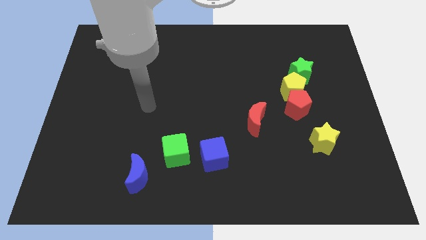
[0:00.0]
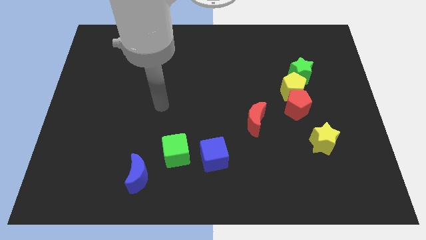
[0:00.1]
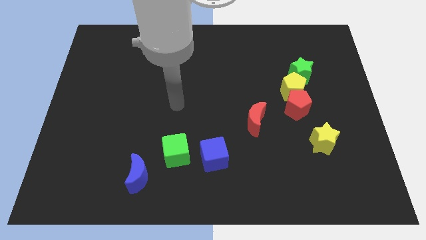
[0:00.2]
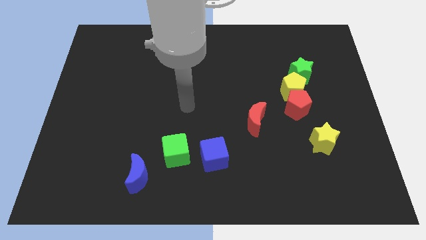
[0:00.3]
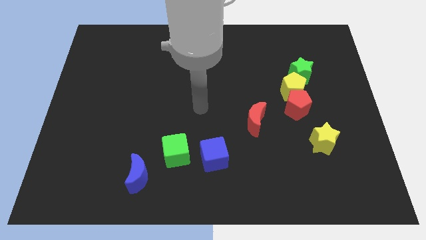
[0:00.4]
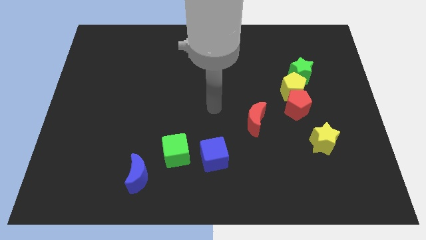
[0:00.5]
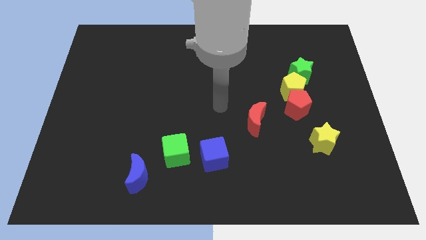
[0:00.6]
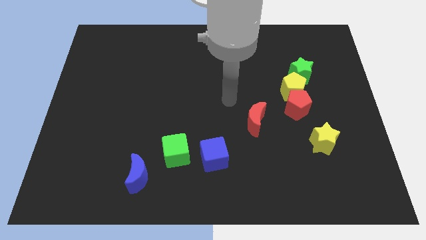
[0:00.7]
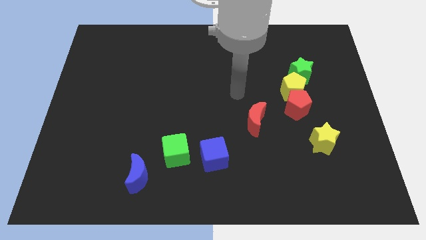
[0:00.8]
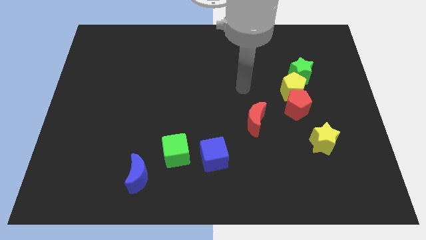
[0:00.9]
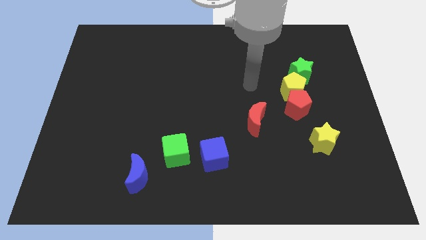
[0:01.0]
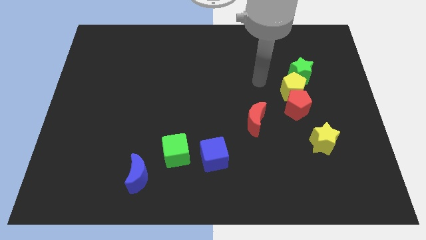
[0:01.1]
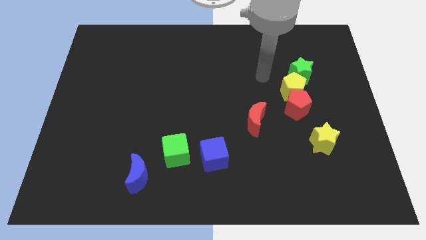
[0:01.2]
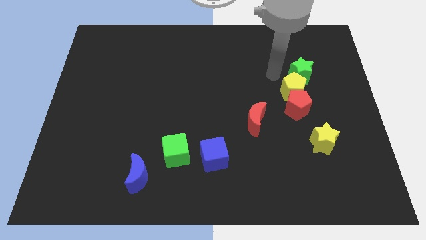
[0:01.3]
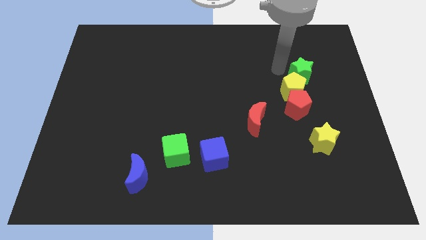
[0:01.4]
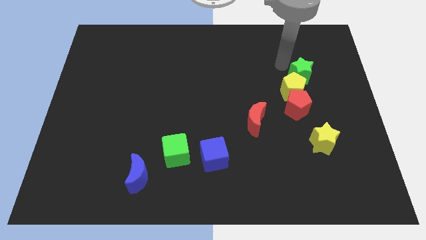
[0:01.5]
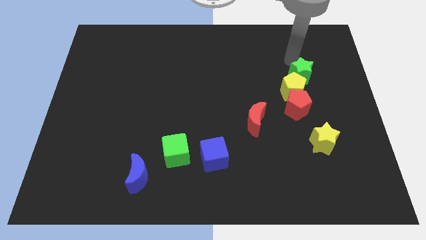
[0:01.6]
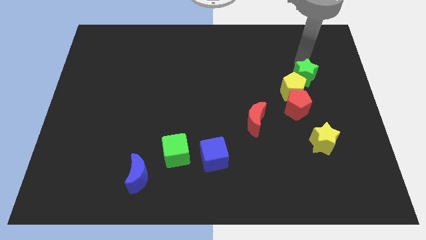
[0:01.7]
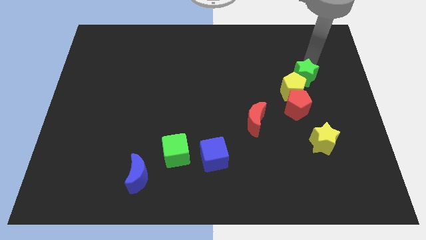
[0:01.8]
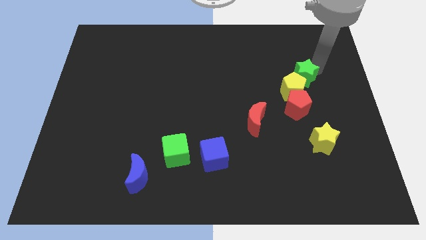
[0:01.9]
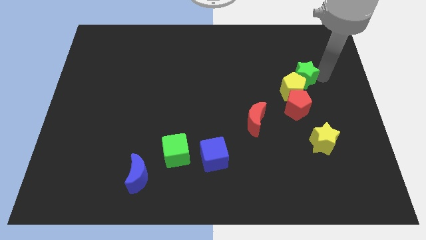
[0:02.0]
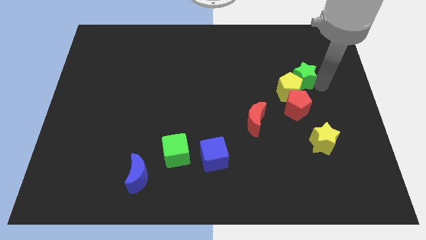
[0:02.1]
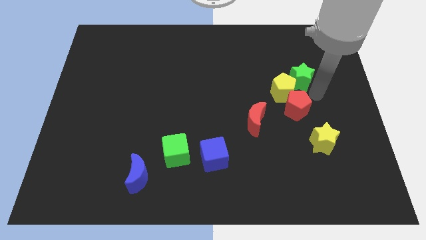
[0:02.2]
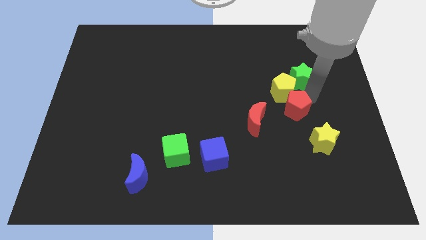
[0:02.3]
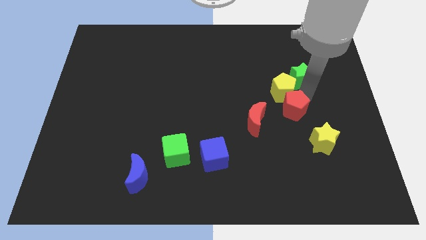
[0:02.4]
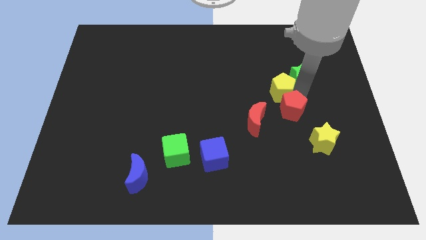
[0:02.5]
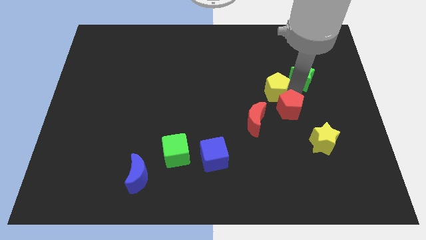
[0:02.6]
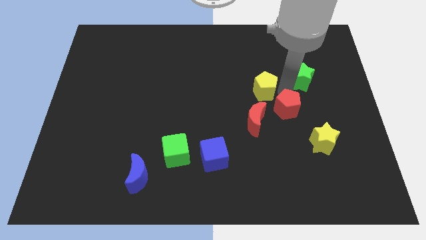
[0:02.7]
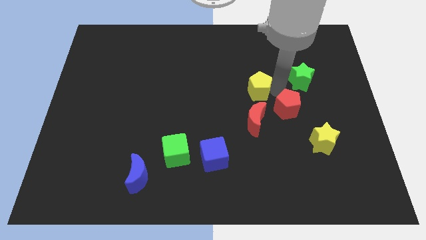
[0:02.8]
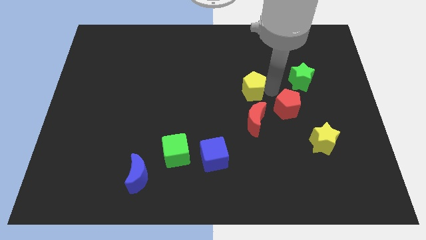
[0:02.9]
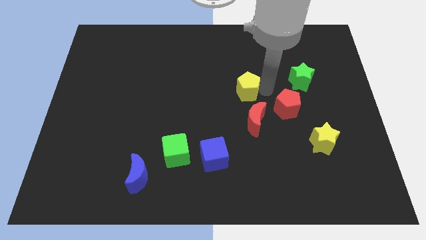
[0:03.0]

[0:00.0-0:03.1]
separate the yellow pentagon from the red pentagon and green star

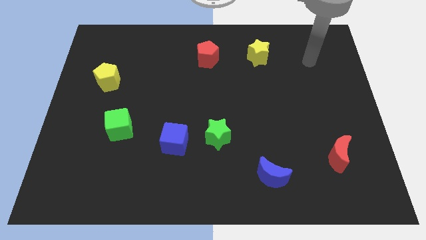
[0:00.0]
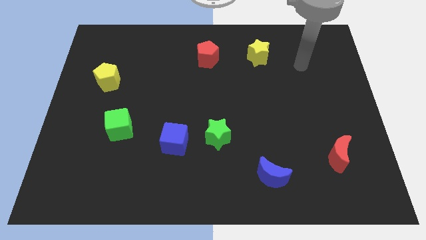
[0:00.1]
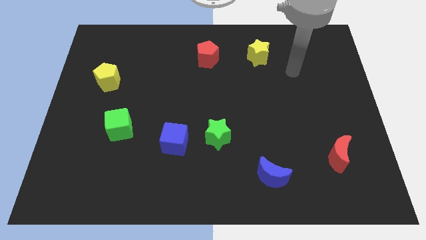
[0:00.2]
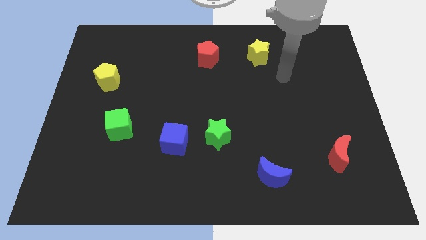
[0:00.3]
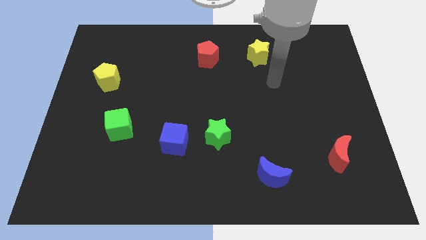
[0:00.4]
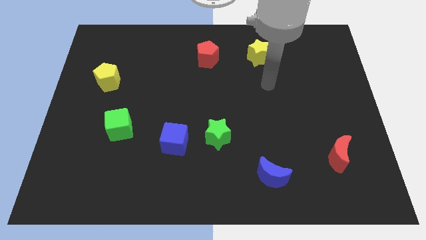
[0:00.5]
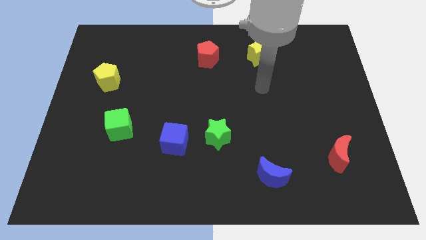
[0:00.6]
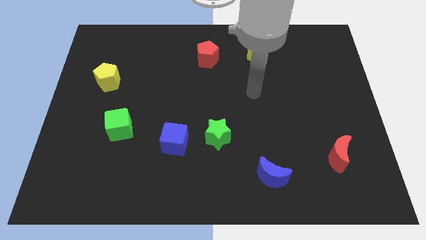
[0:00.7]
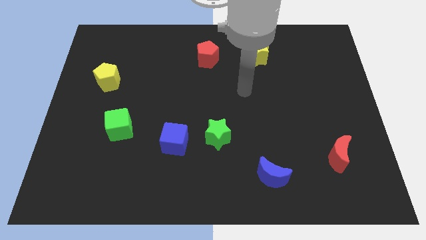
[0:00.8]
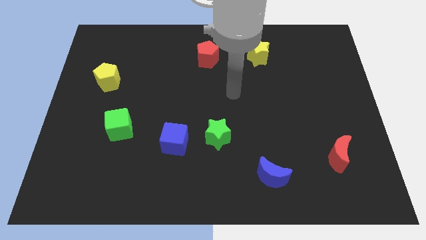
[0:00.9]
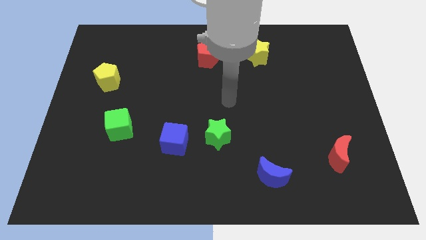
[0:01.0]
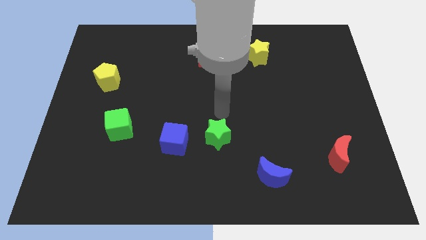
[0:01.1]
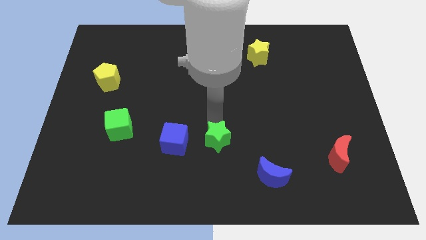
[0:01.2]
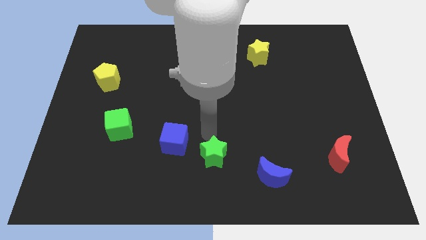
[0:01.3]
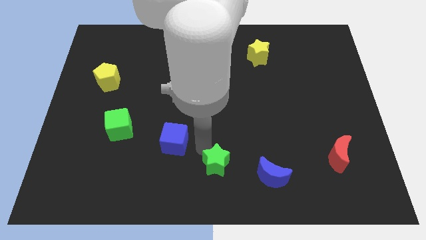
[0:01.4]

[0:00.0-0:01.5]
separate the blue cube from the green star

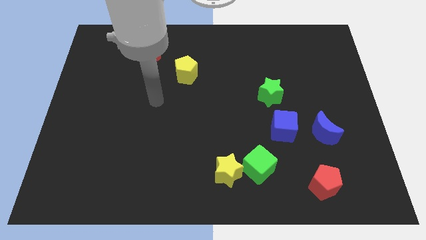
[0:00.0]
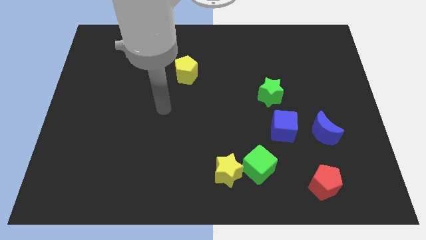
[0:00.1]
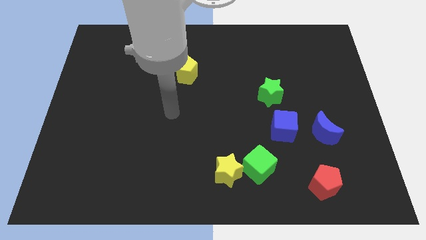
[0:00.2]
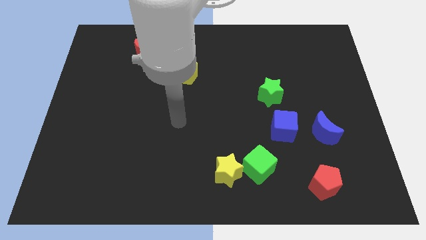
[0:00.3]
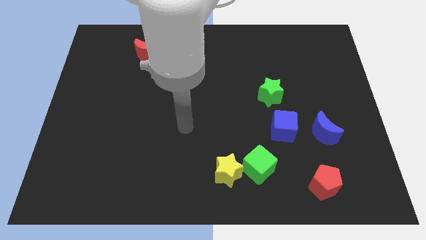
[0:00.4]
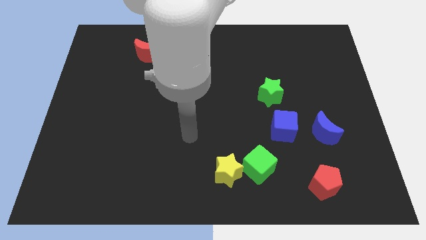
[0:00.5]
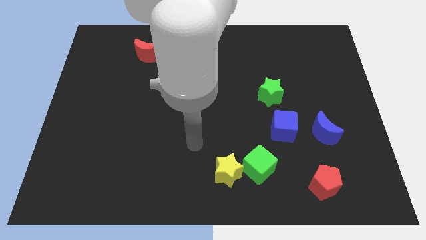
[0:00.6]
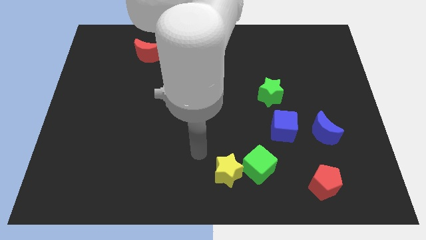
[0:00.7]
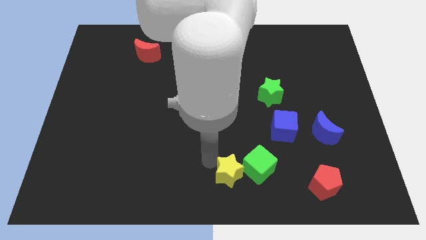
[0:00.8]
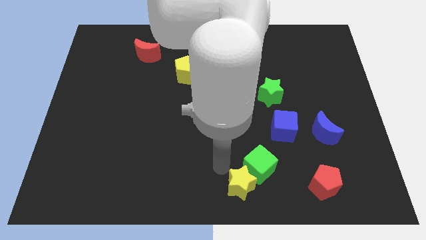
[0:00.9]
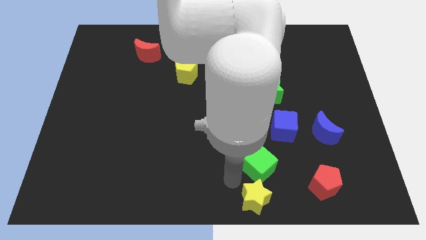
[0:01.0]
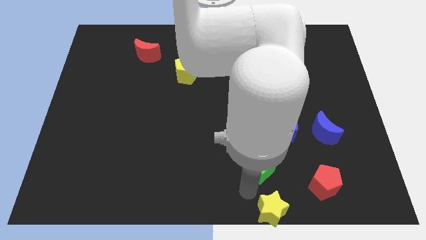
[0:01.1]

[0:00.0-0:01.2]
pull the green cube apart from the yellow star

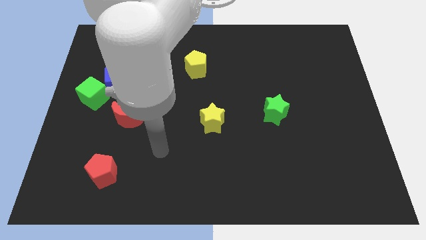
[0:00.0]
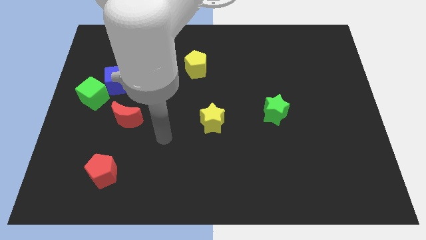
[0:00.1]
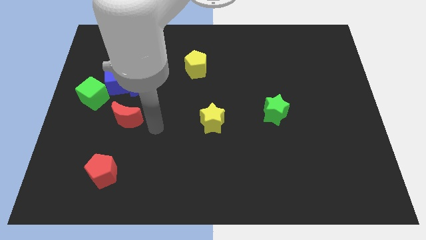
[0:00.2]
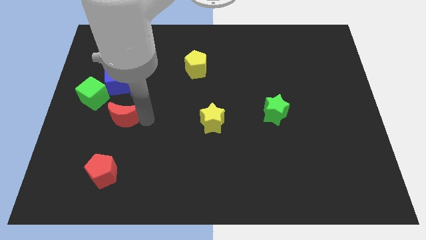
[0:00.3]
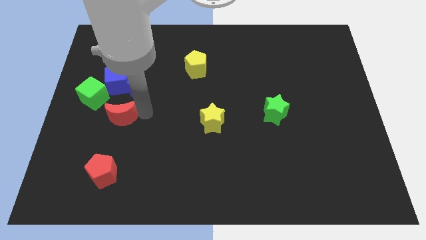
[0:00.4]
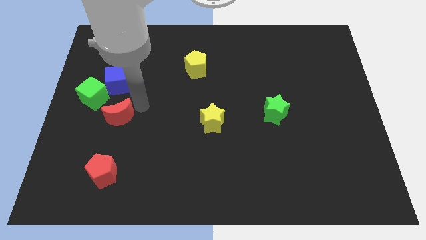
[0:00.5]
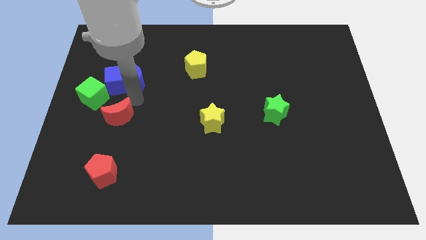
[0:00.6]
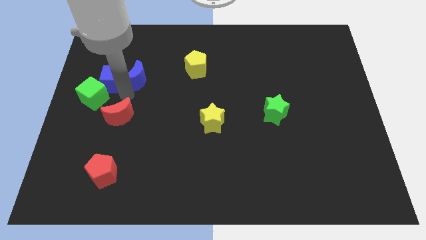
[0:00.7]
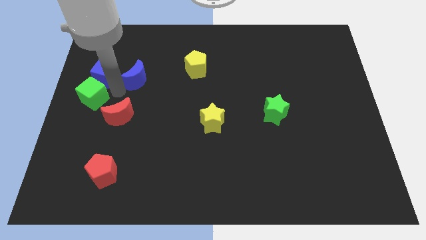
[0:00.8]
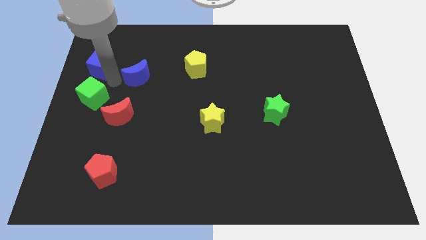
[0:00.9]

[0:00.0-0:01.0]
move the blue moon away from the blue cube

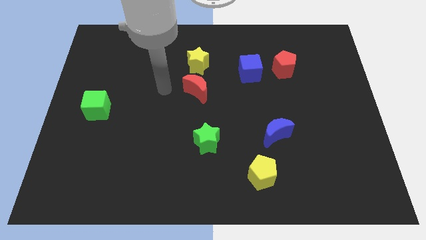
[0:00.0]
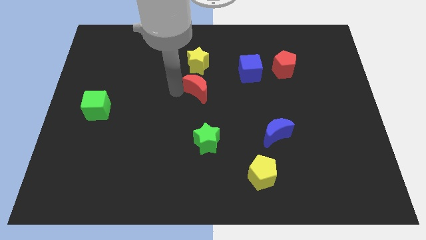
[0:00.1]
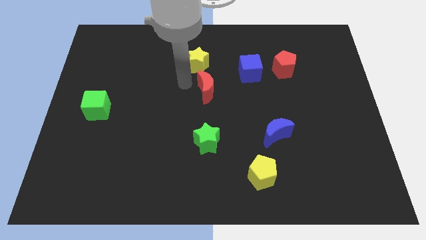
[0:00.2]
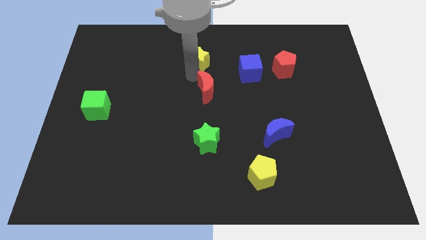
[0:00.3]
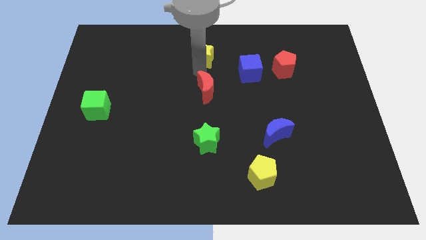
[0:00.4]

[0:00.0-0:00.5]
pull the red moon apart from the yellow star

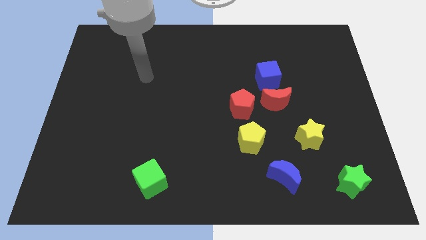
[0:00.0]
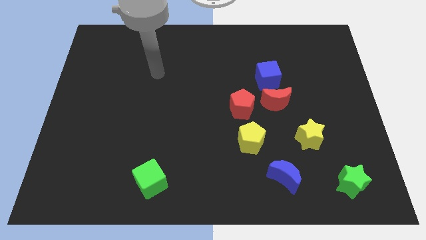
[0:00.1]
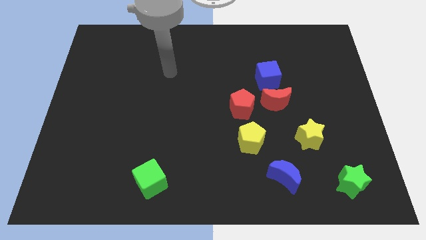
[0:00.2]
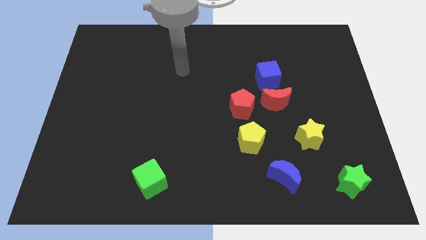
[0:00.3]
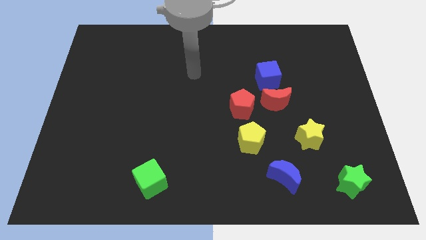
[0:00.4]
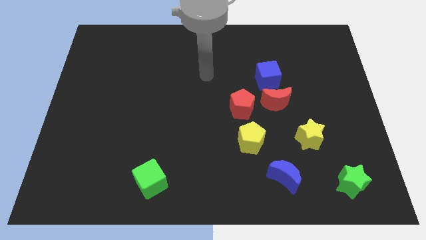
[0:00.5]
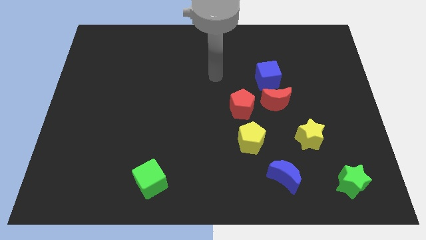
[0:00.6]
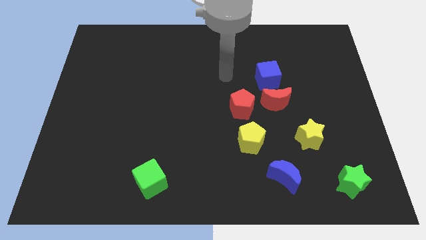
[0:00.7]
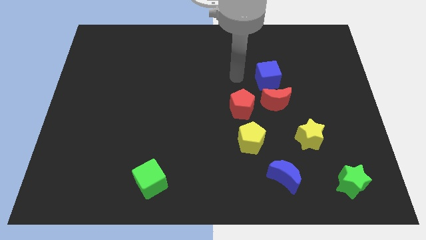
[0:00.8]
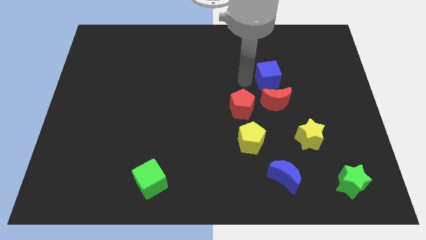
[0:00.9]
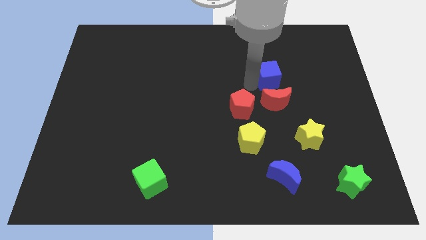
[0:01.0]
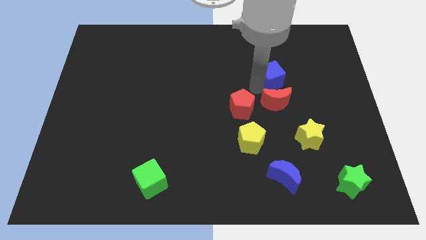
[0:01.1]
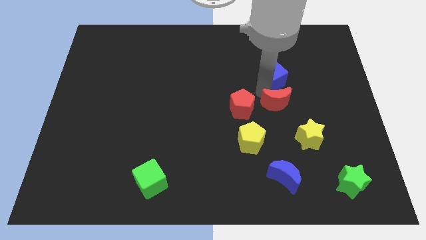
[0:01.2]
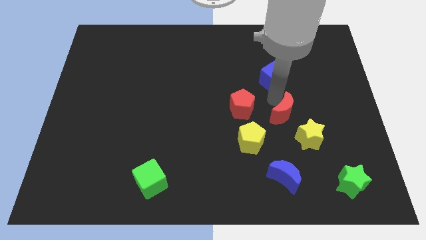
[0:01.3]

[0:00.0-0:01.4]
pull the blue cube apart from the red moon

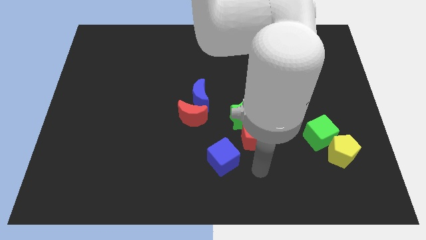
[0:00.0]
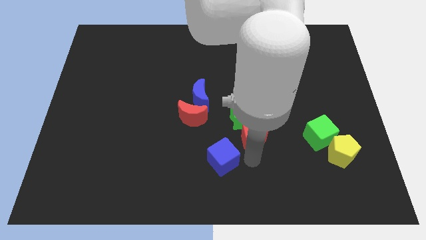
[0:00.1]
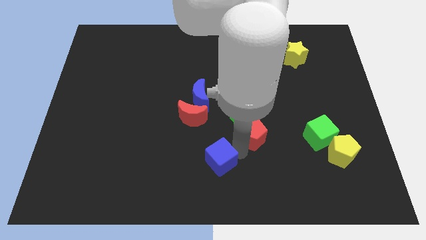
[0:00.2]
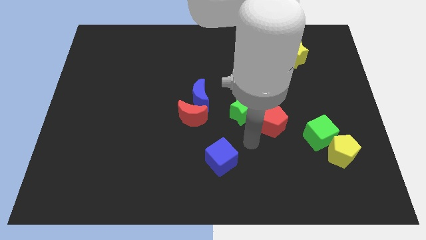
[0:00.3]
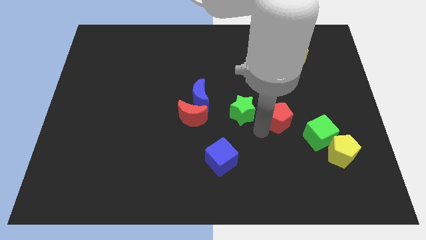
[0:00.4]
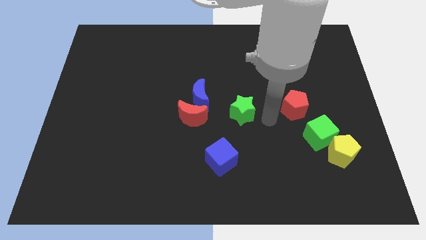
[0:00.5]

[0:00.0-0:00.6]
move the green star away from the red pentagon
